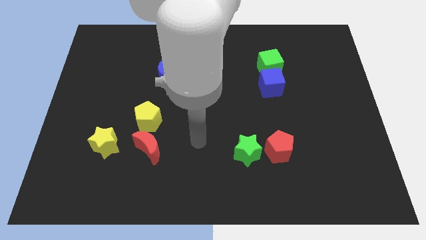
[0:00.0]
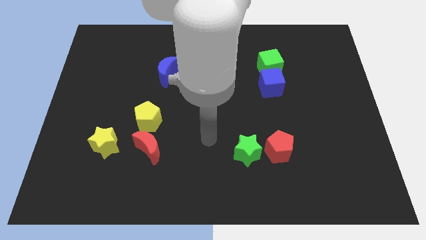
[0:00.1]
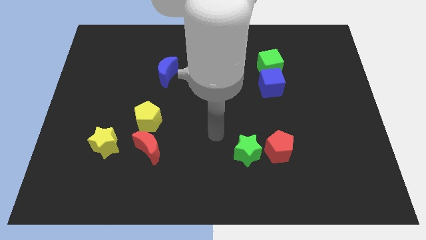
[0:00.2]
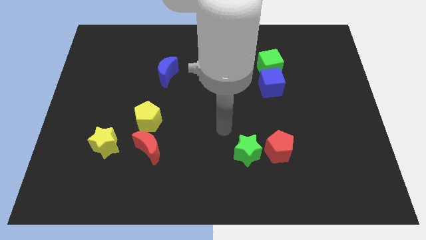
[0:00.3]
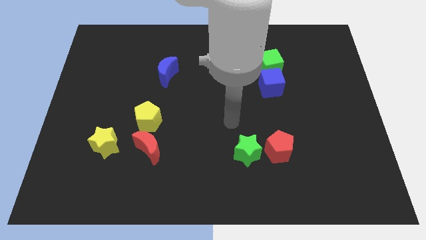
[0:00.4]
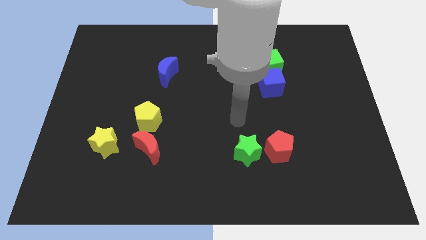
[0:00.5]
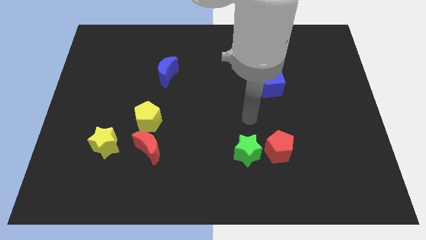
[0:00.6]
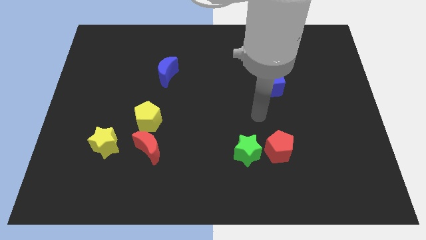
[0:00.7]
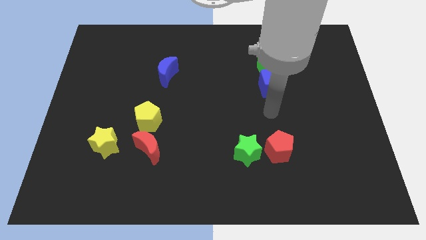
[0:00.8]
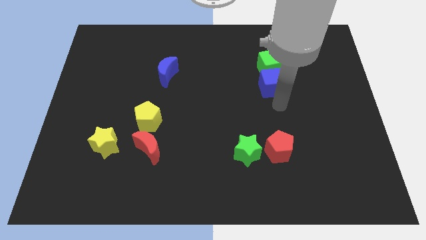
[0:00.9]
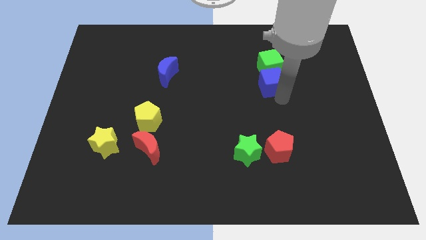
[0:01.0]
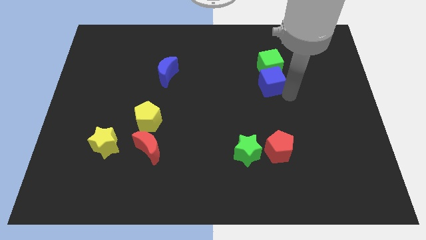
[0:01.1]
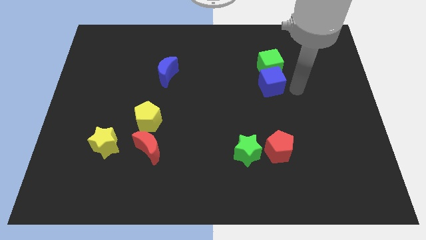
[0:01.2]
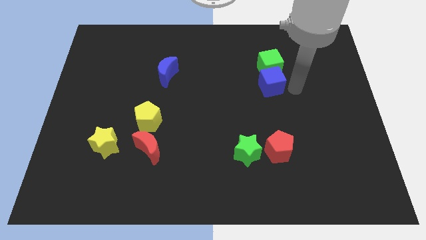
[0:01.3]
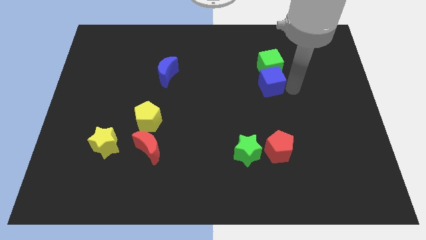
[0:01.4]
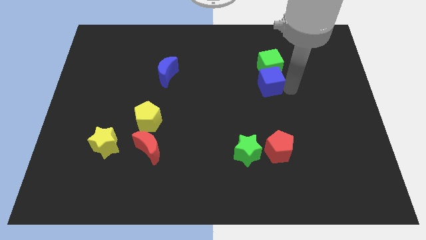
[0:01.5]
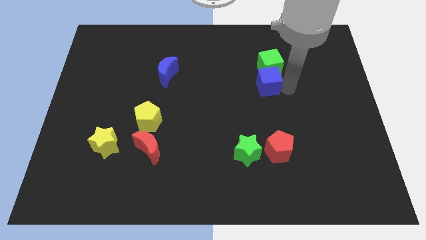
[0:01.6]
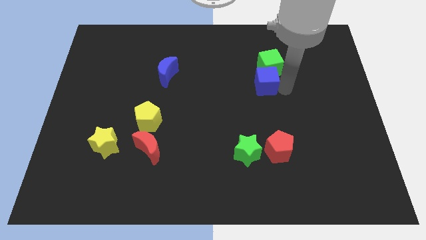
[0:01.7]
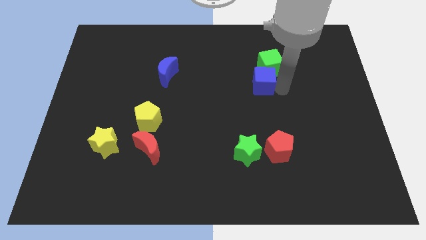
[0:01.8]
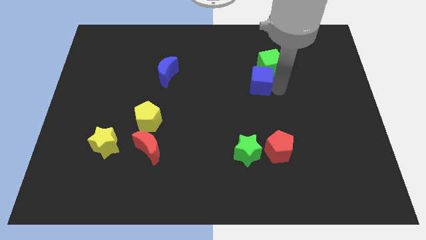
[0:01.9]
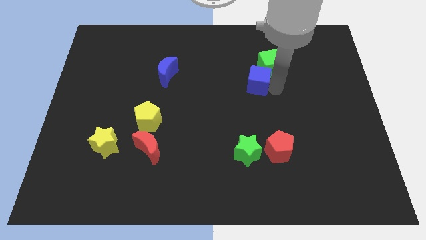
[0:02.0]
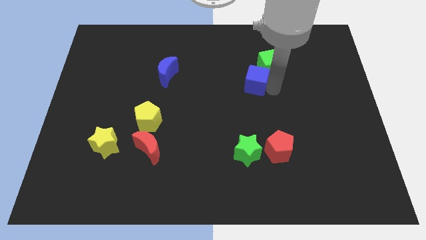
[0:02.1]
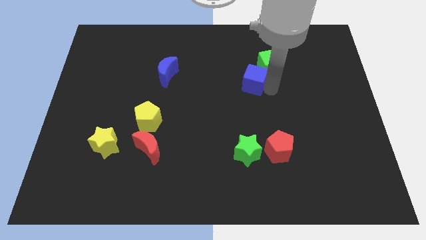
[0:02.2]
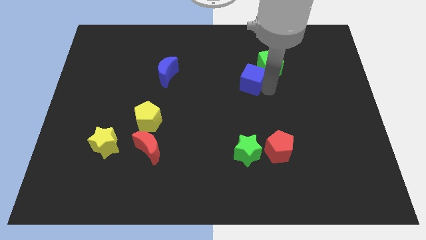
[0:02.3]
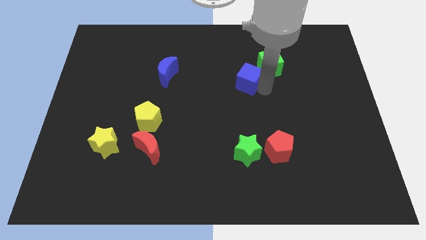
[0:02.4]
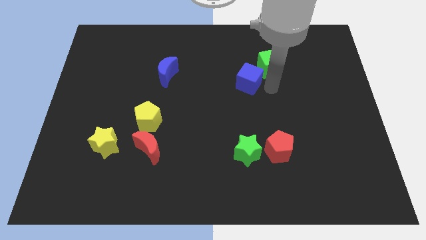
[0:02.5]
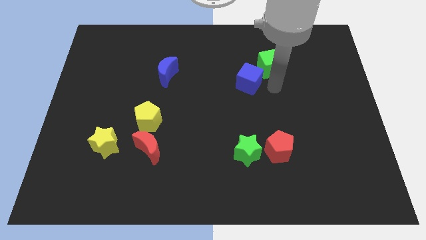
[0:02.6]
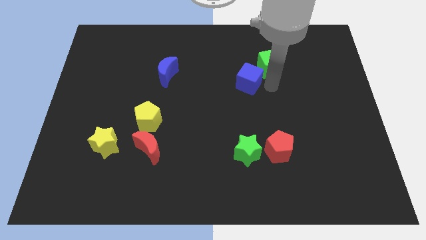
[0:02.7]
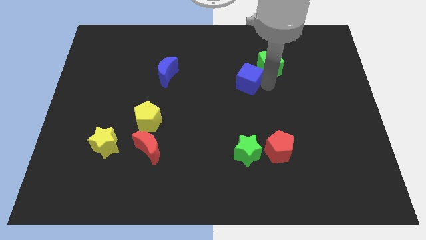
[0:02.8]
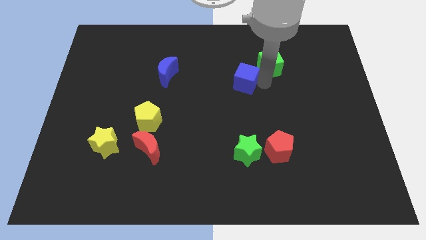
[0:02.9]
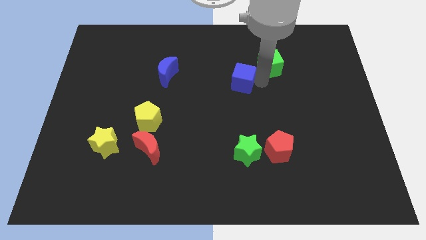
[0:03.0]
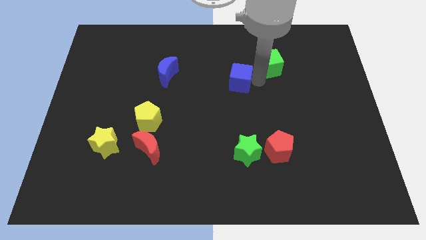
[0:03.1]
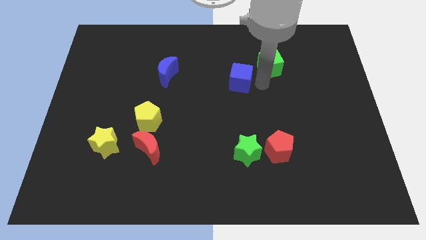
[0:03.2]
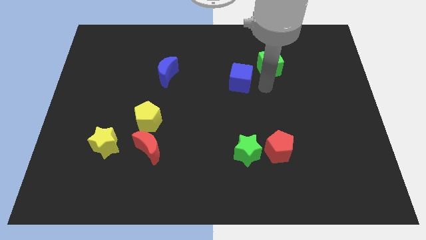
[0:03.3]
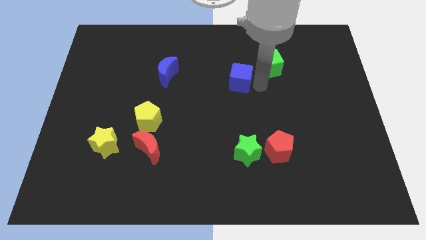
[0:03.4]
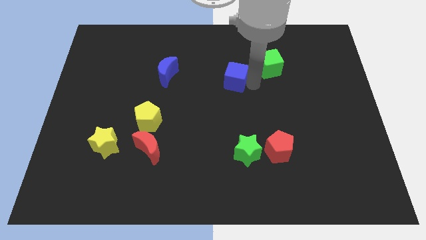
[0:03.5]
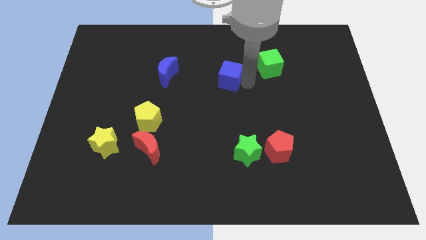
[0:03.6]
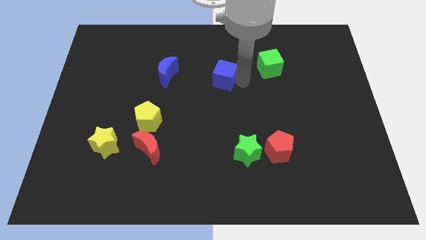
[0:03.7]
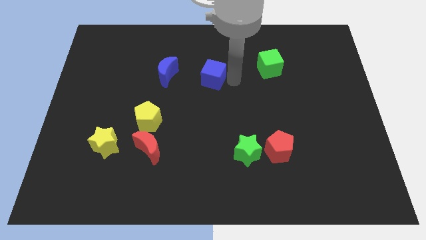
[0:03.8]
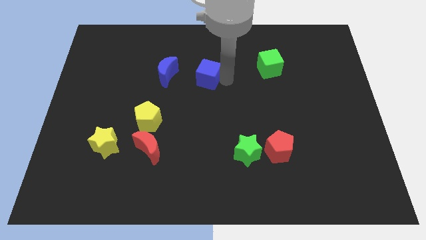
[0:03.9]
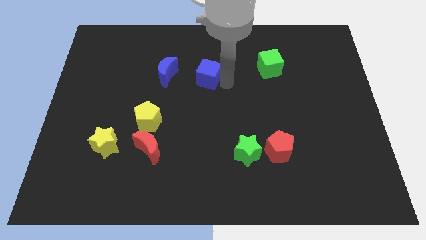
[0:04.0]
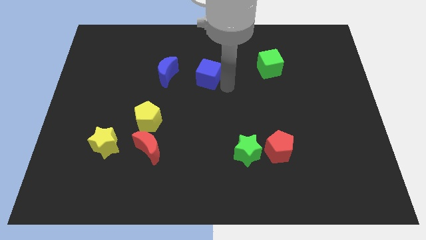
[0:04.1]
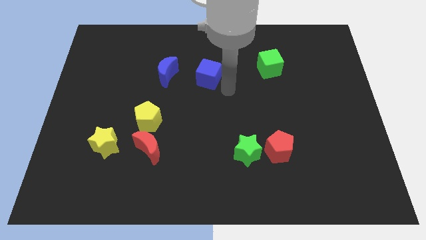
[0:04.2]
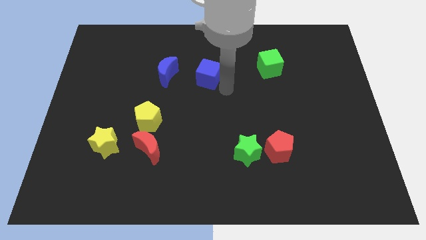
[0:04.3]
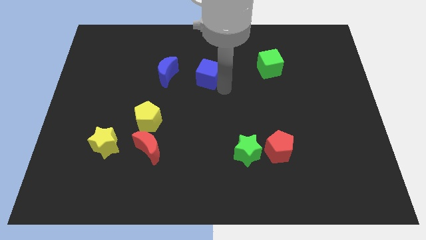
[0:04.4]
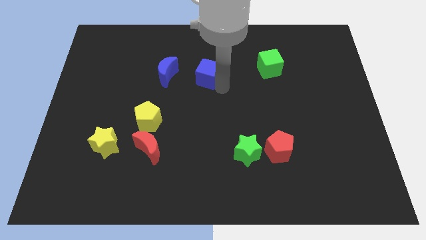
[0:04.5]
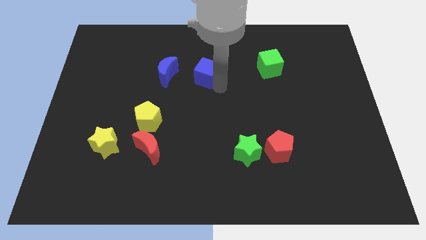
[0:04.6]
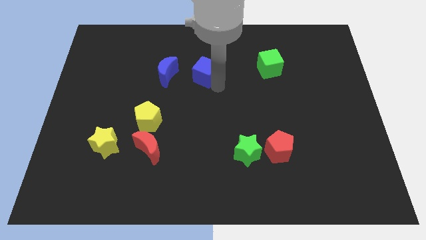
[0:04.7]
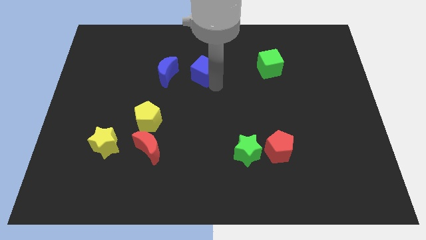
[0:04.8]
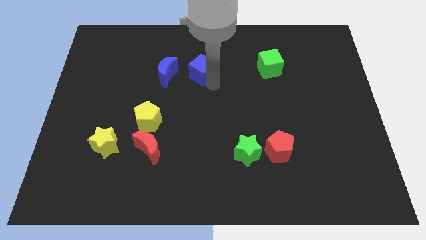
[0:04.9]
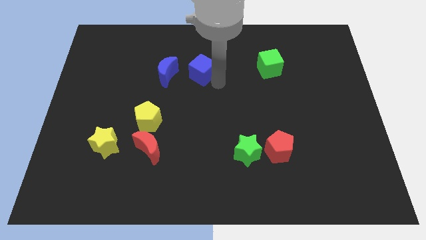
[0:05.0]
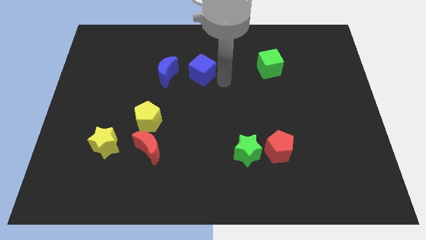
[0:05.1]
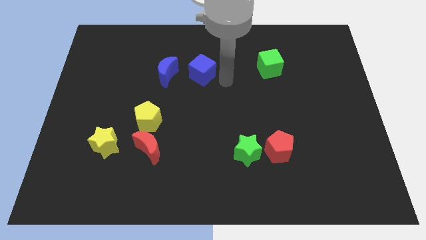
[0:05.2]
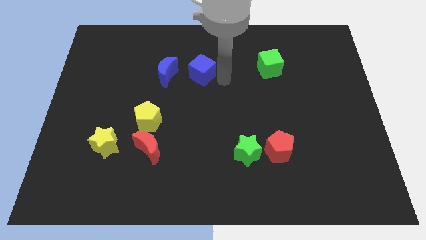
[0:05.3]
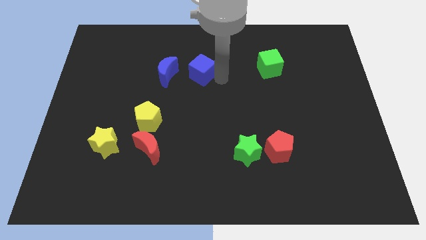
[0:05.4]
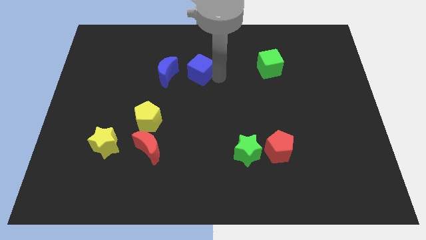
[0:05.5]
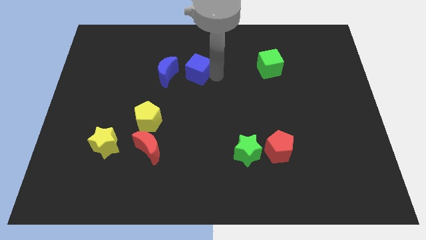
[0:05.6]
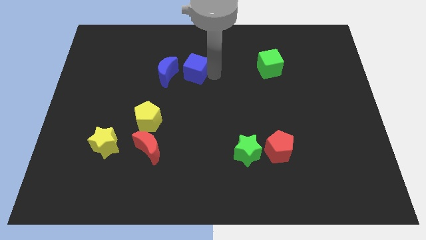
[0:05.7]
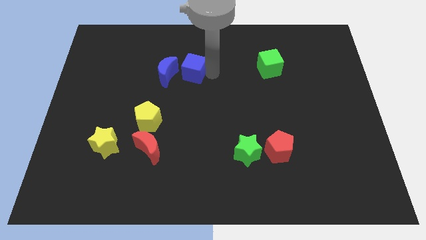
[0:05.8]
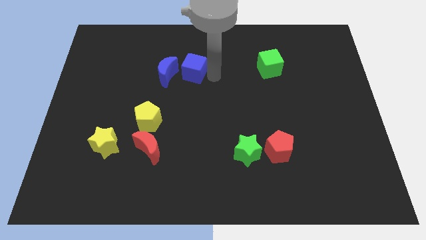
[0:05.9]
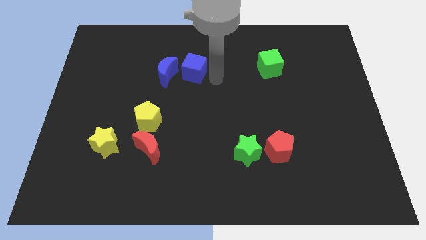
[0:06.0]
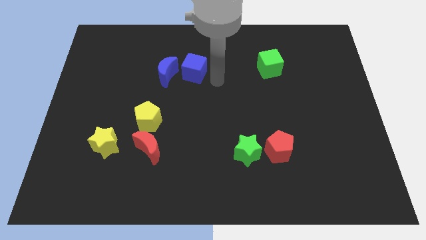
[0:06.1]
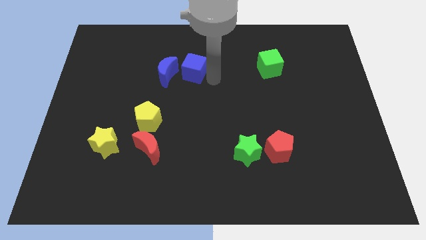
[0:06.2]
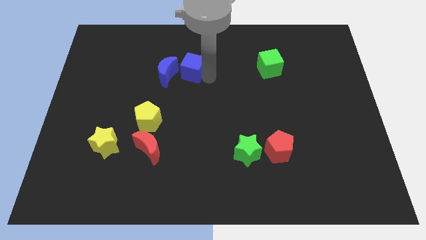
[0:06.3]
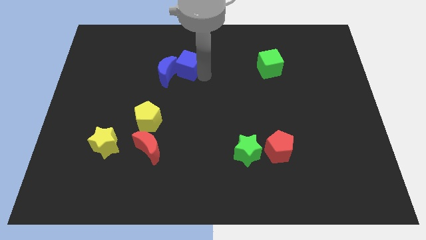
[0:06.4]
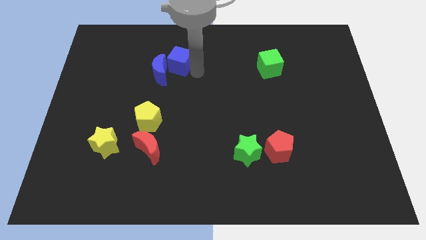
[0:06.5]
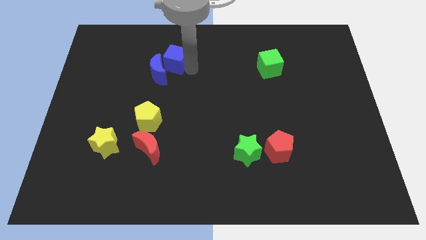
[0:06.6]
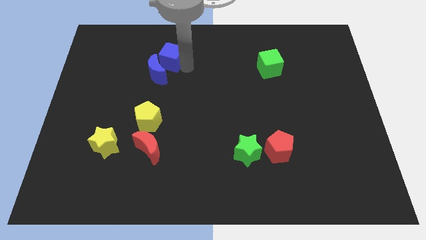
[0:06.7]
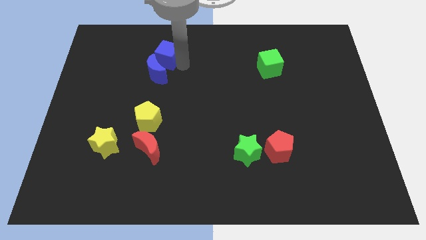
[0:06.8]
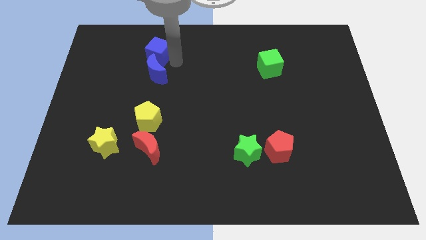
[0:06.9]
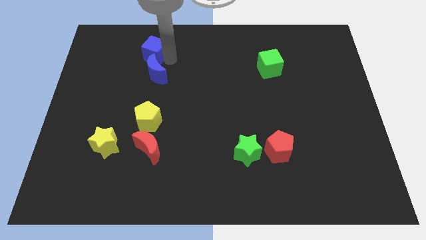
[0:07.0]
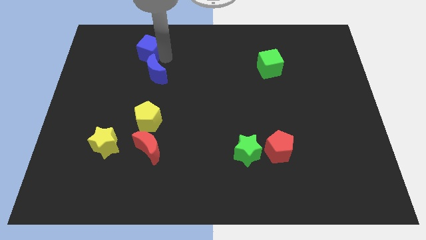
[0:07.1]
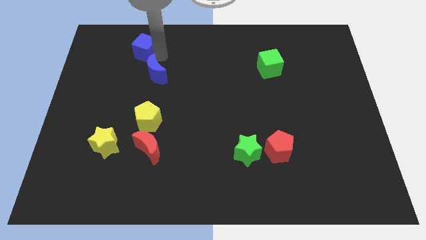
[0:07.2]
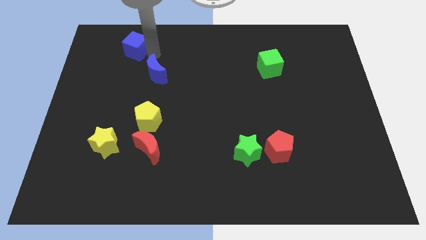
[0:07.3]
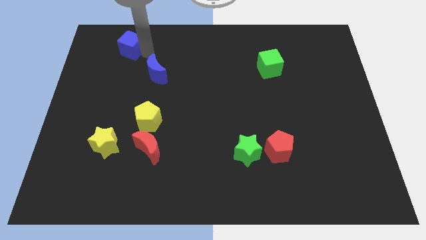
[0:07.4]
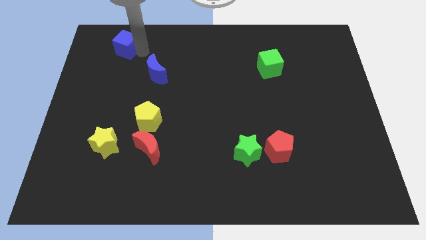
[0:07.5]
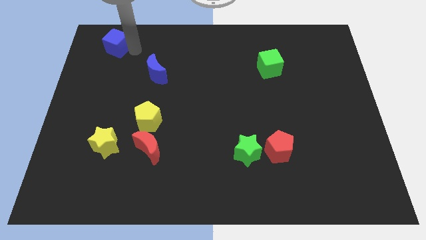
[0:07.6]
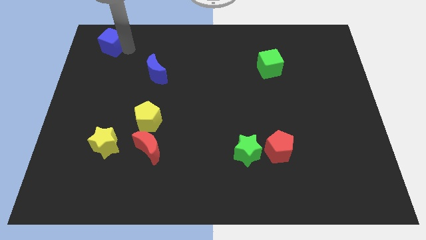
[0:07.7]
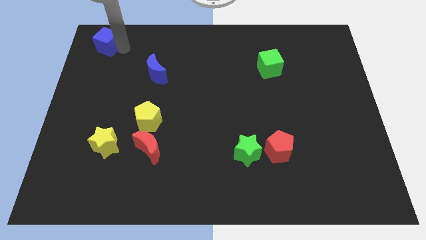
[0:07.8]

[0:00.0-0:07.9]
push the blue cube to the top left corner
